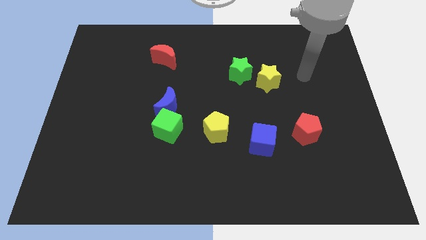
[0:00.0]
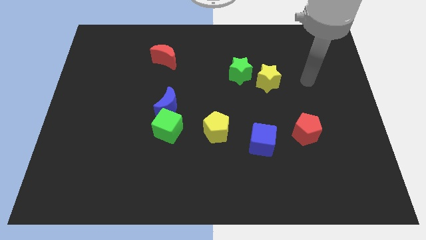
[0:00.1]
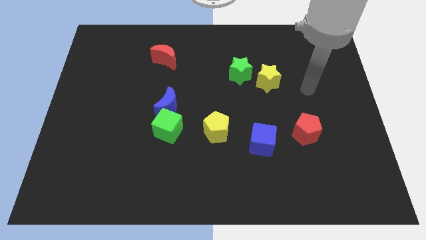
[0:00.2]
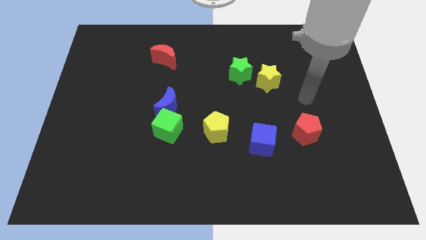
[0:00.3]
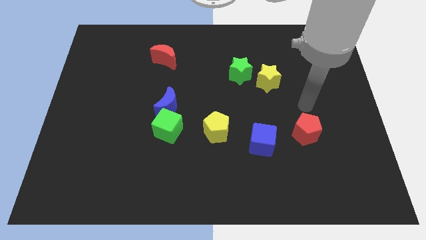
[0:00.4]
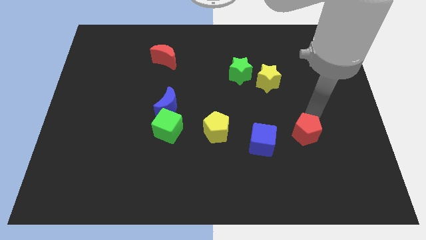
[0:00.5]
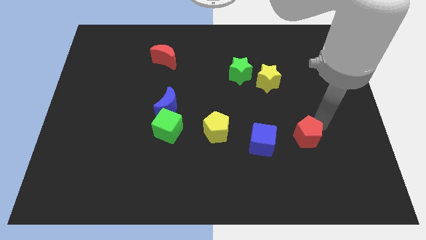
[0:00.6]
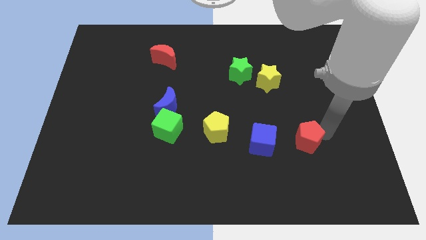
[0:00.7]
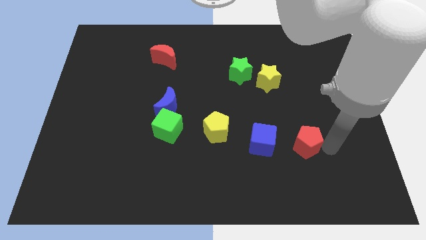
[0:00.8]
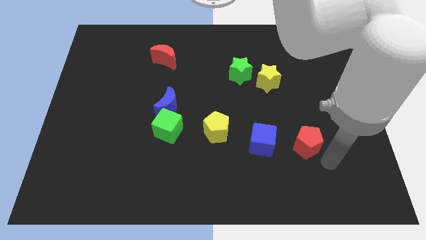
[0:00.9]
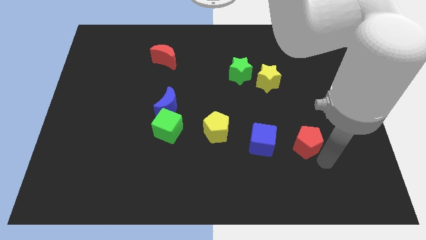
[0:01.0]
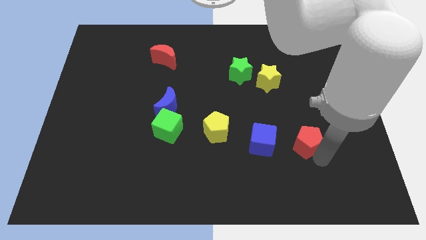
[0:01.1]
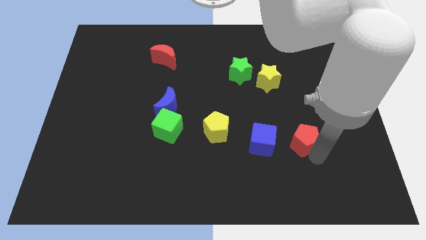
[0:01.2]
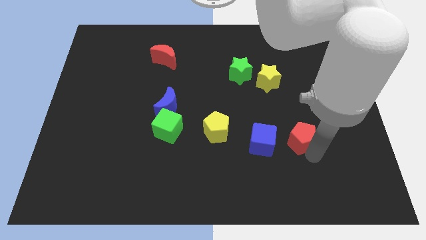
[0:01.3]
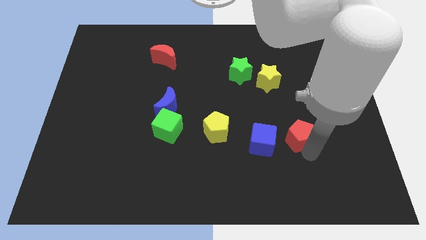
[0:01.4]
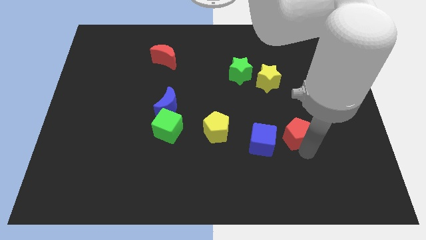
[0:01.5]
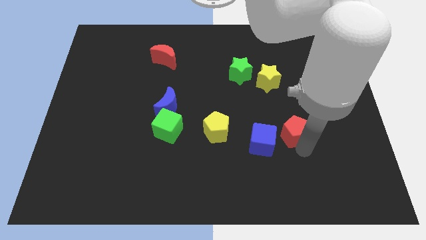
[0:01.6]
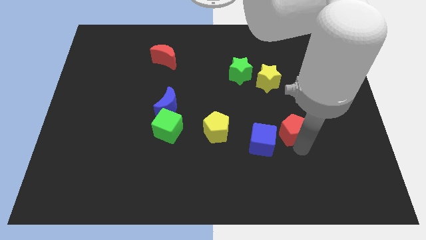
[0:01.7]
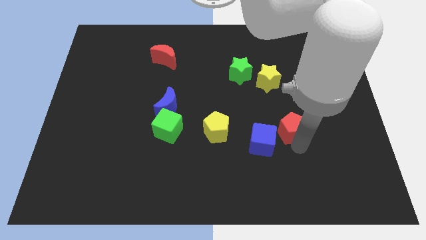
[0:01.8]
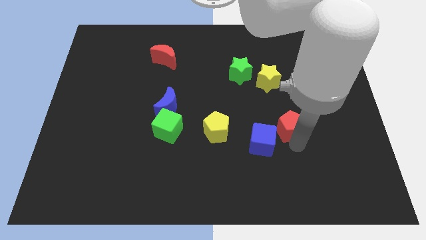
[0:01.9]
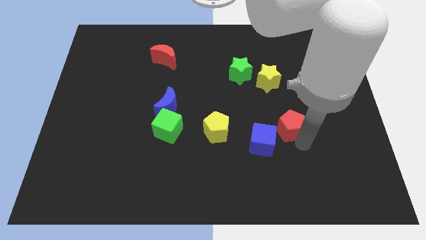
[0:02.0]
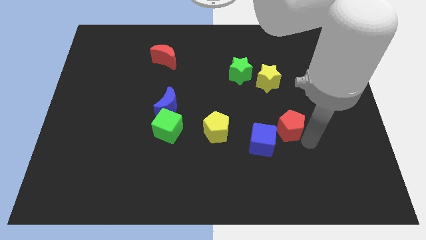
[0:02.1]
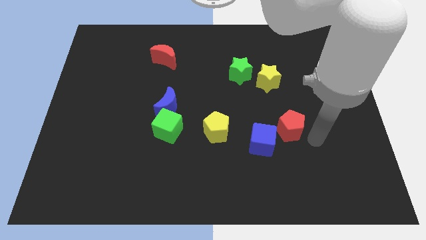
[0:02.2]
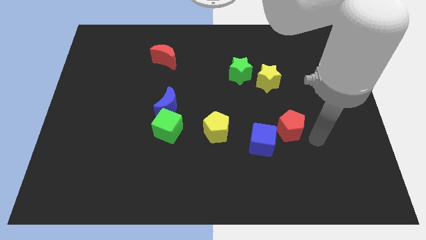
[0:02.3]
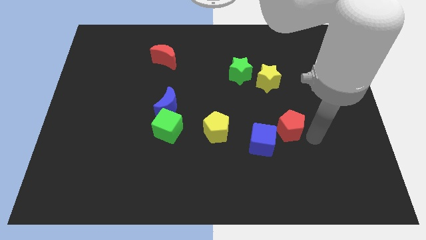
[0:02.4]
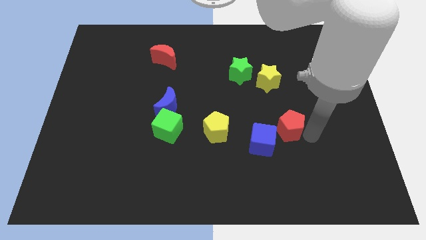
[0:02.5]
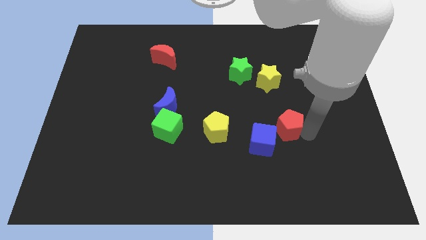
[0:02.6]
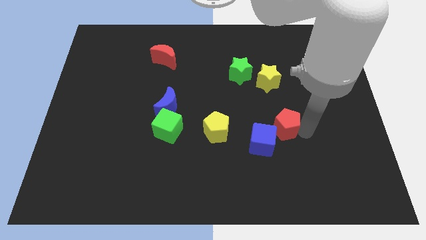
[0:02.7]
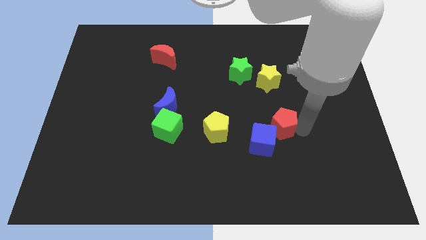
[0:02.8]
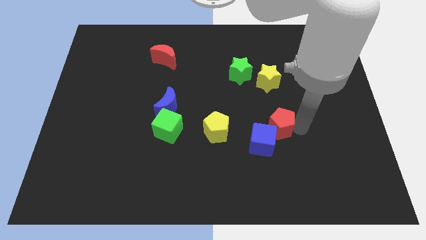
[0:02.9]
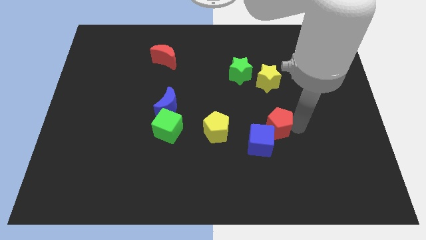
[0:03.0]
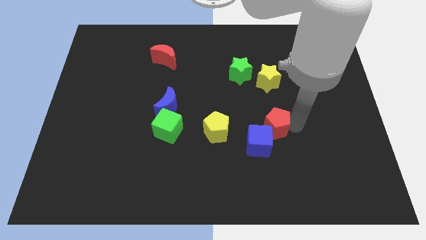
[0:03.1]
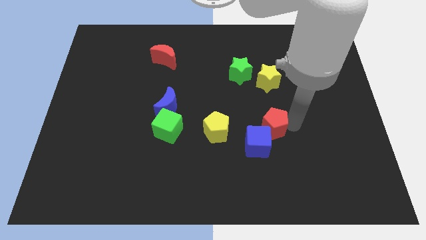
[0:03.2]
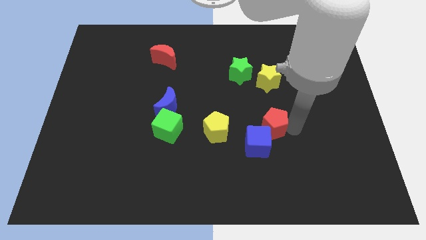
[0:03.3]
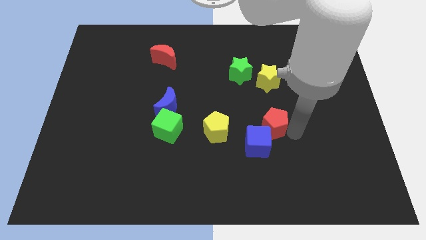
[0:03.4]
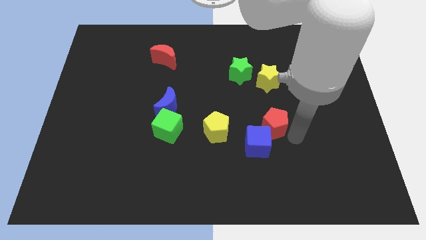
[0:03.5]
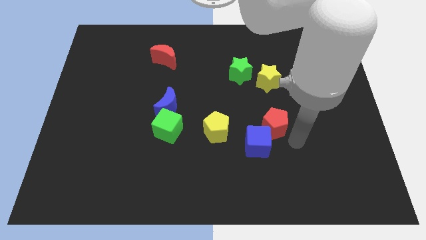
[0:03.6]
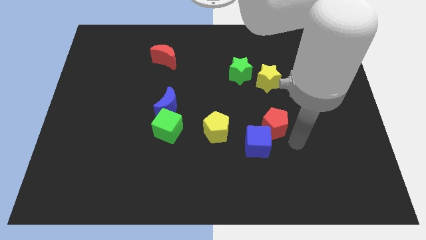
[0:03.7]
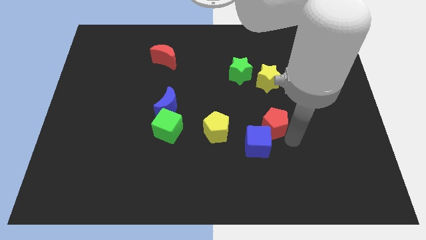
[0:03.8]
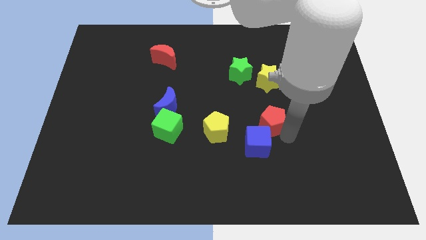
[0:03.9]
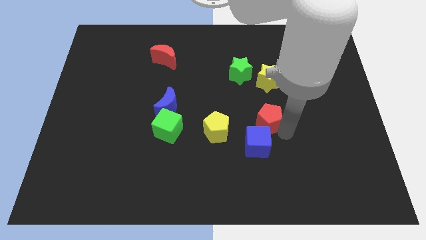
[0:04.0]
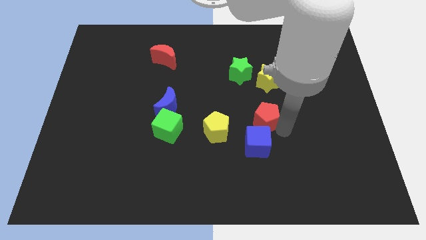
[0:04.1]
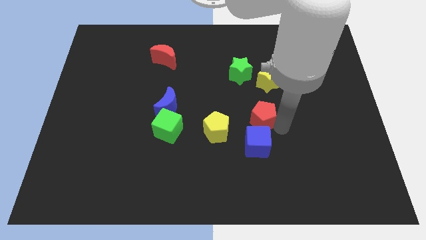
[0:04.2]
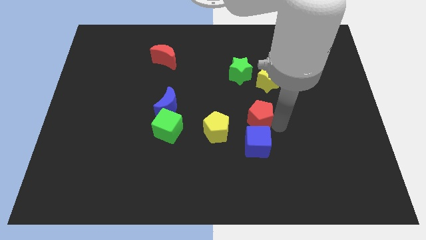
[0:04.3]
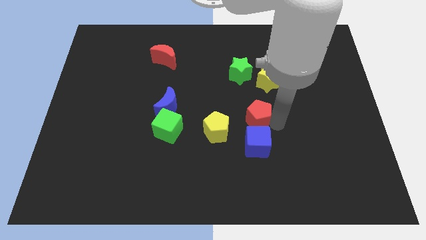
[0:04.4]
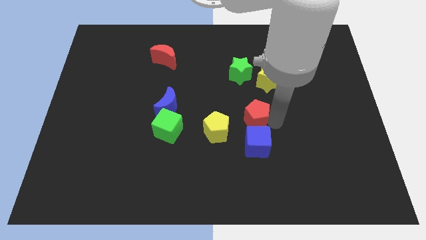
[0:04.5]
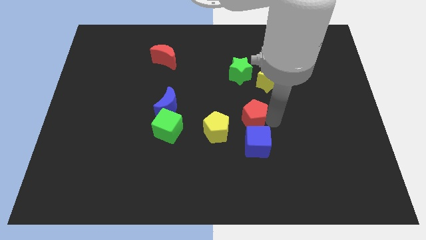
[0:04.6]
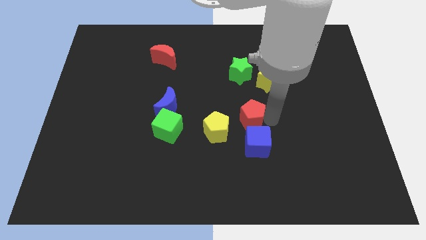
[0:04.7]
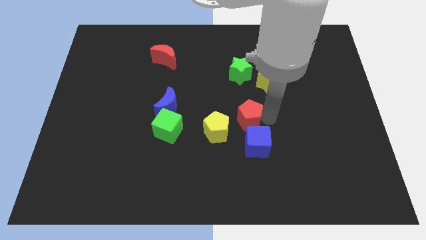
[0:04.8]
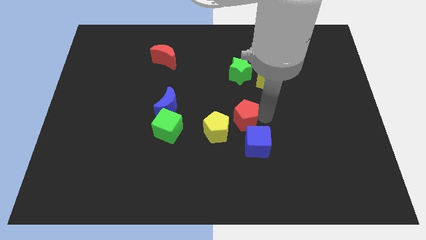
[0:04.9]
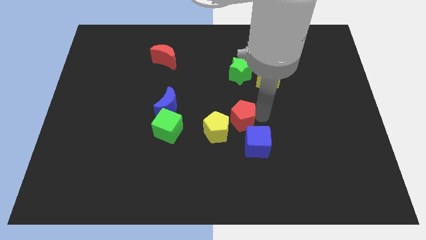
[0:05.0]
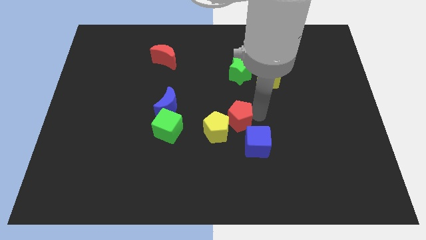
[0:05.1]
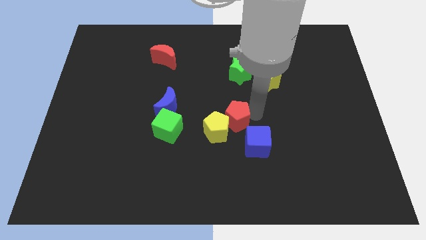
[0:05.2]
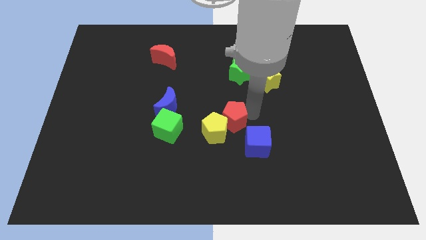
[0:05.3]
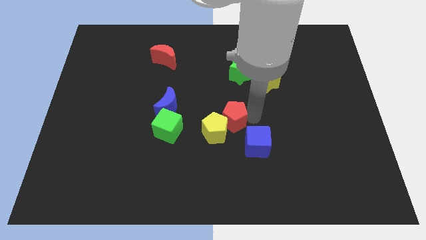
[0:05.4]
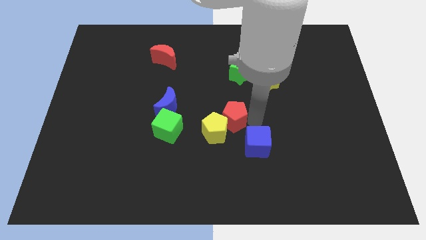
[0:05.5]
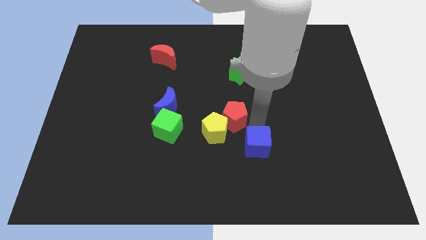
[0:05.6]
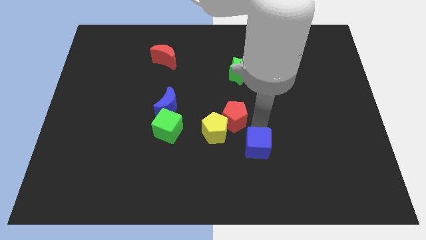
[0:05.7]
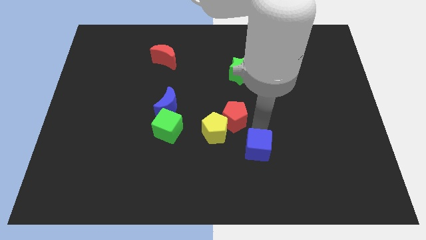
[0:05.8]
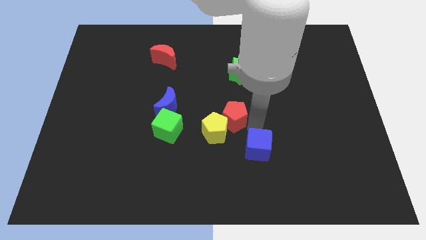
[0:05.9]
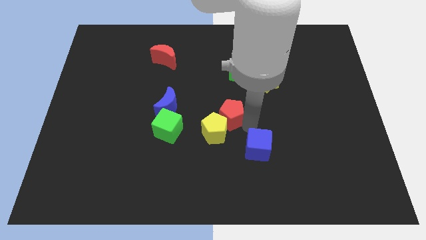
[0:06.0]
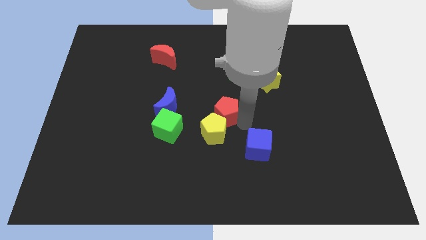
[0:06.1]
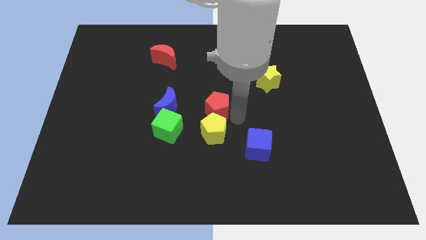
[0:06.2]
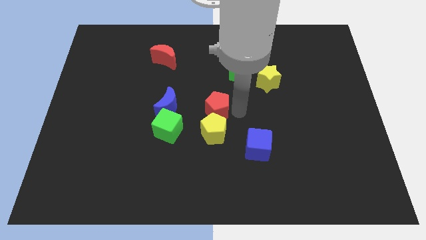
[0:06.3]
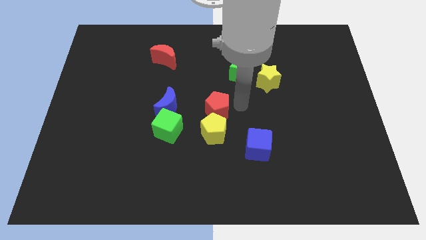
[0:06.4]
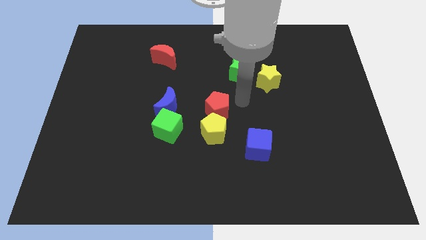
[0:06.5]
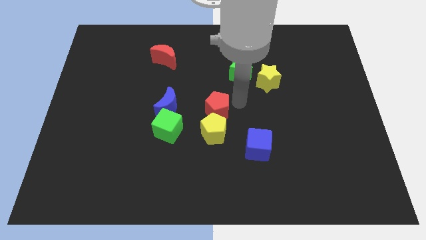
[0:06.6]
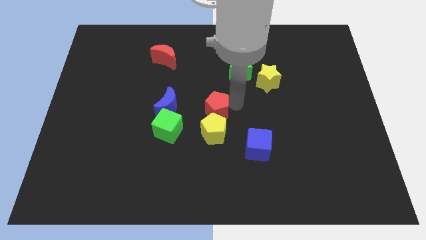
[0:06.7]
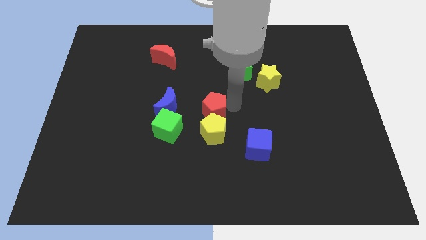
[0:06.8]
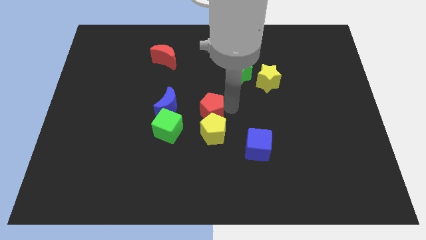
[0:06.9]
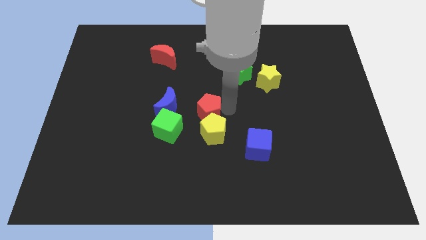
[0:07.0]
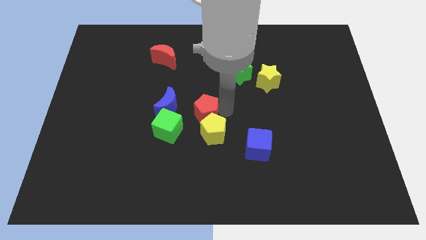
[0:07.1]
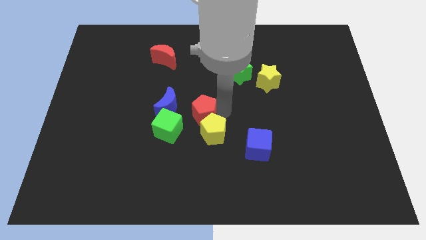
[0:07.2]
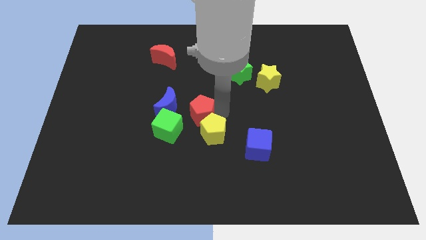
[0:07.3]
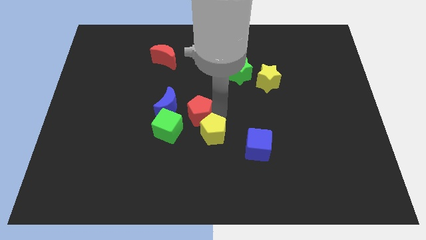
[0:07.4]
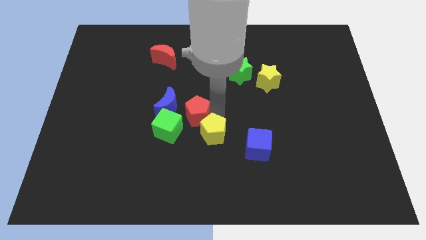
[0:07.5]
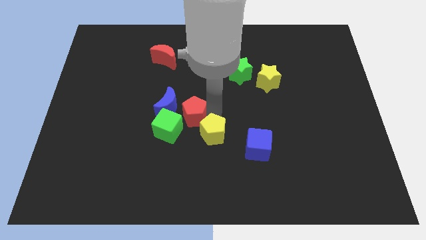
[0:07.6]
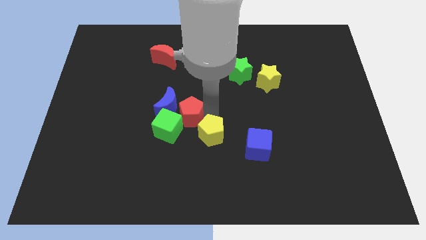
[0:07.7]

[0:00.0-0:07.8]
slide the red pentagon close to the green cube

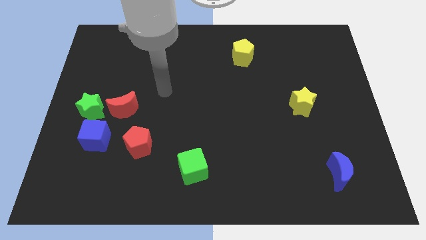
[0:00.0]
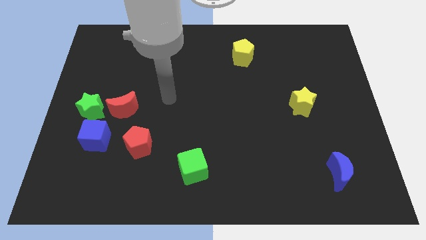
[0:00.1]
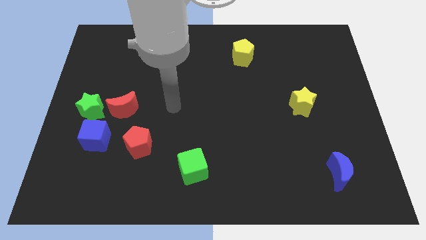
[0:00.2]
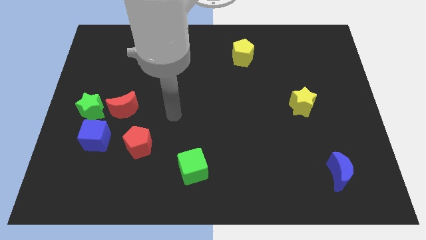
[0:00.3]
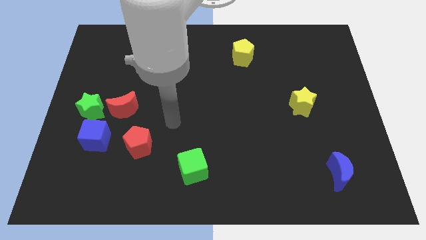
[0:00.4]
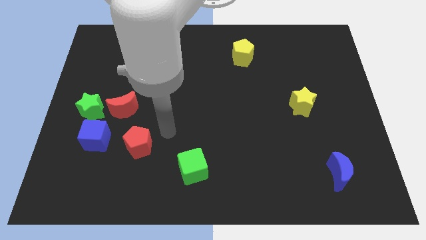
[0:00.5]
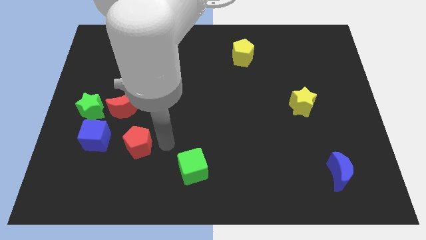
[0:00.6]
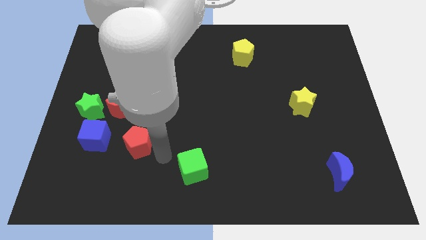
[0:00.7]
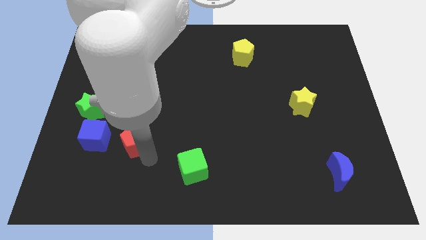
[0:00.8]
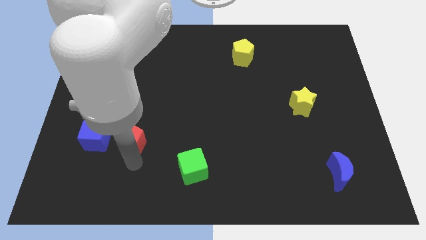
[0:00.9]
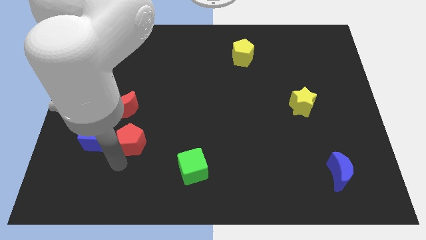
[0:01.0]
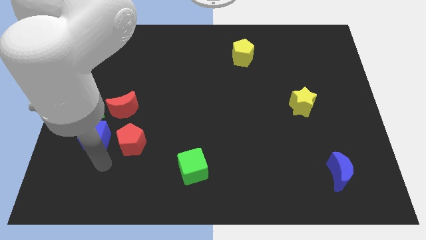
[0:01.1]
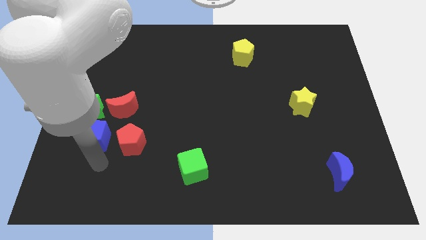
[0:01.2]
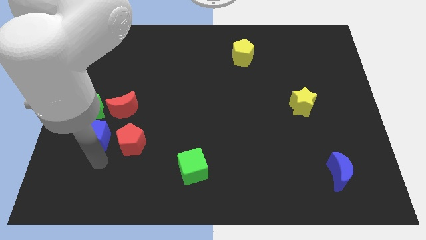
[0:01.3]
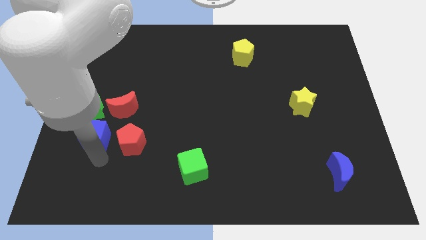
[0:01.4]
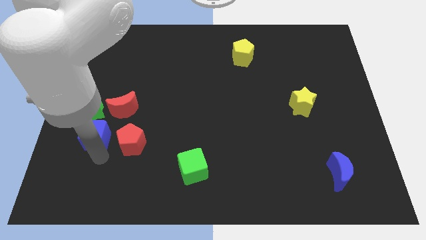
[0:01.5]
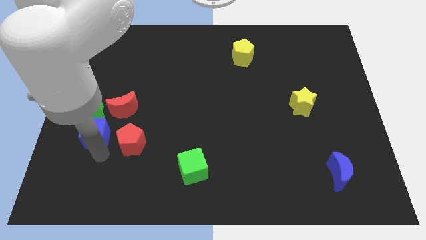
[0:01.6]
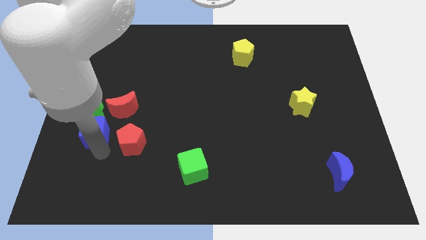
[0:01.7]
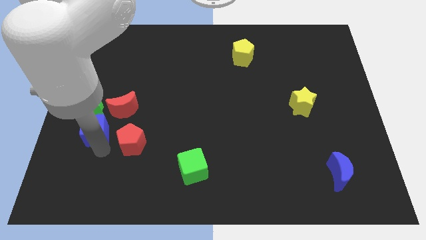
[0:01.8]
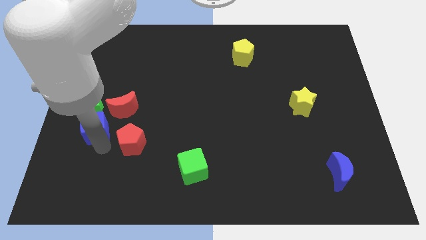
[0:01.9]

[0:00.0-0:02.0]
push the blue cube next to the green star
